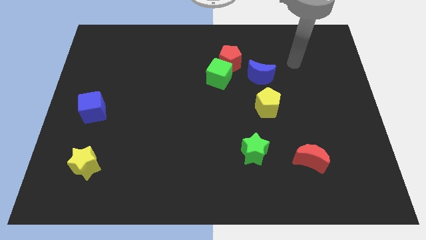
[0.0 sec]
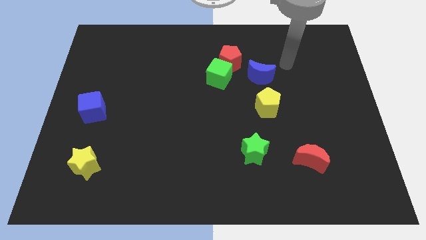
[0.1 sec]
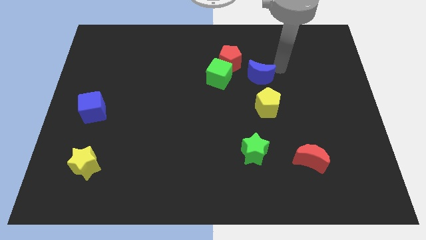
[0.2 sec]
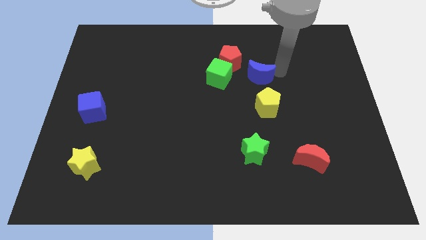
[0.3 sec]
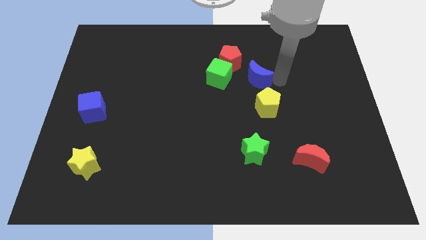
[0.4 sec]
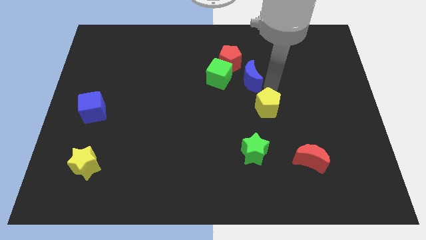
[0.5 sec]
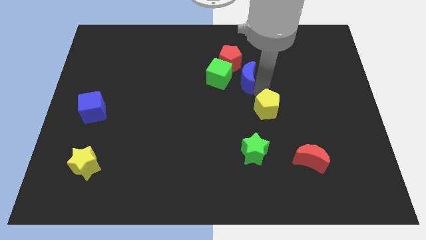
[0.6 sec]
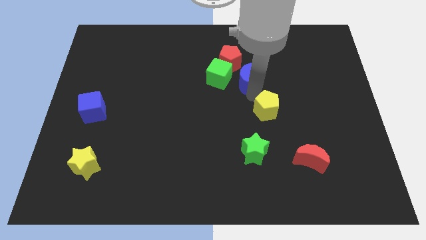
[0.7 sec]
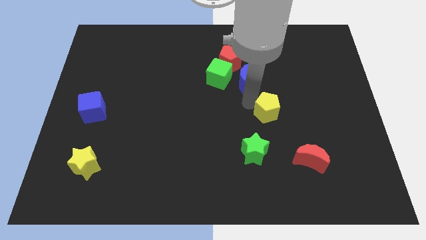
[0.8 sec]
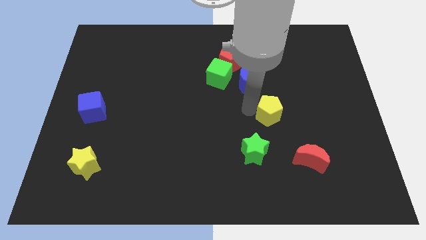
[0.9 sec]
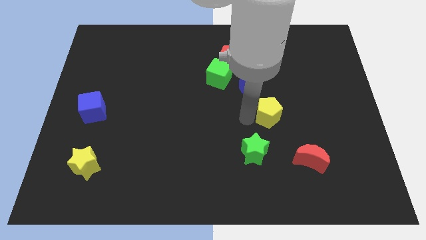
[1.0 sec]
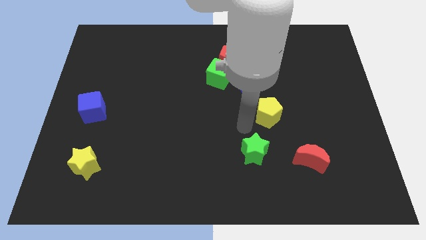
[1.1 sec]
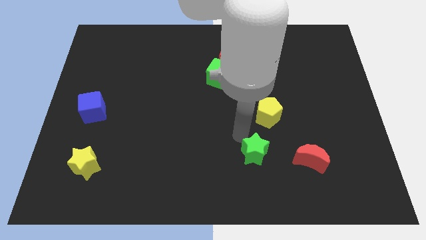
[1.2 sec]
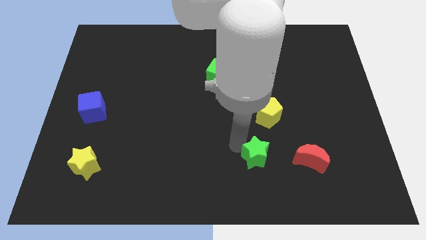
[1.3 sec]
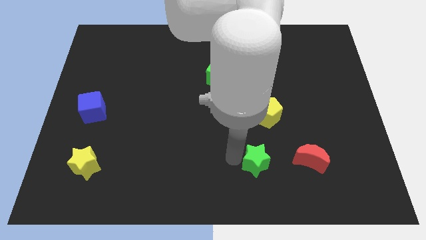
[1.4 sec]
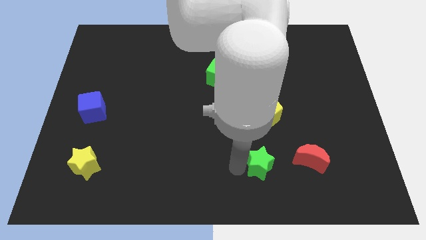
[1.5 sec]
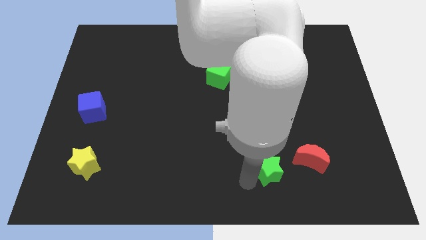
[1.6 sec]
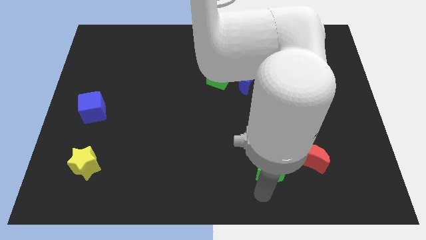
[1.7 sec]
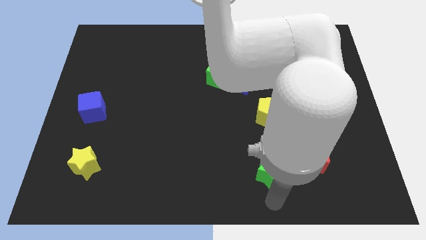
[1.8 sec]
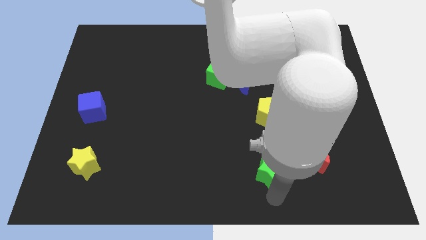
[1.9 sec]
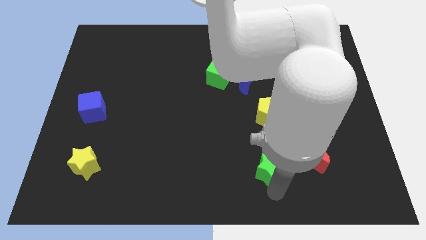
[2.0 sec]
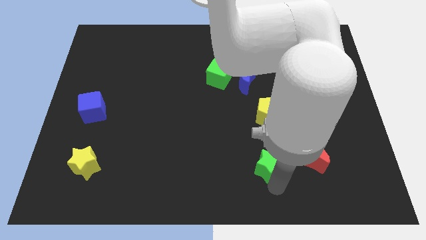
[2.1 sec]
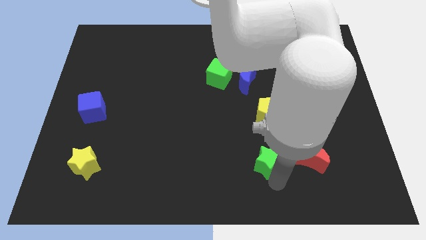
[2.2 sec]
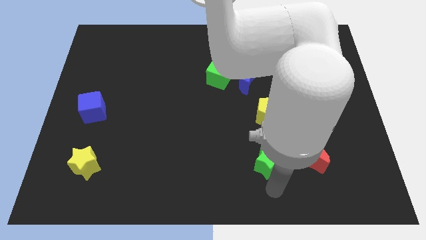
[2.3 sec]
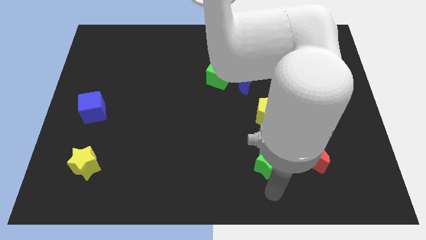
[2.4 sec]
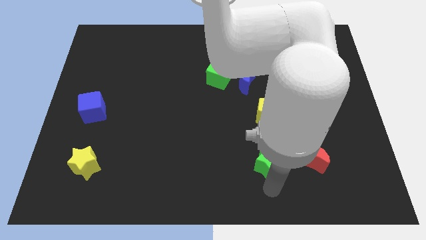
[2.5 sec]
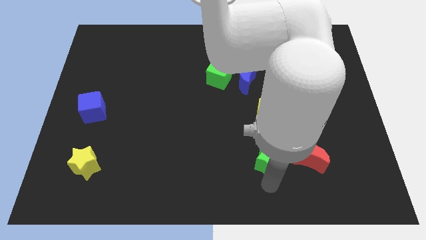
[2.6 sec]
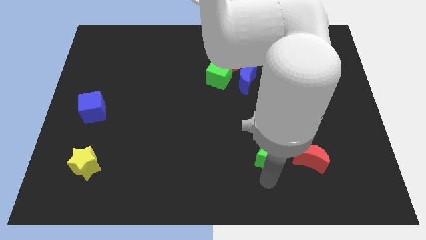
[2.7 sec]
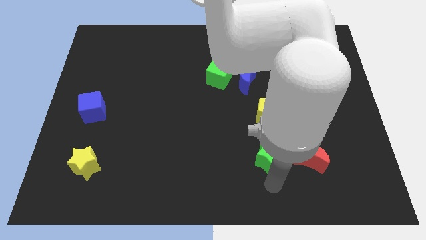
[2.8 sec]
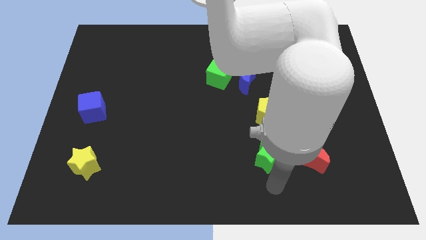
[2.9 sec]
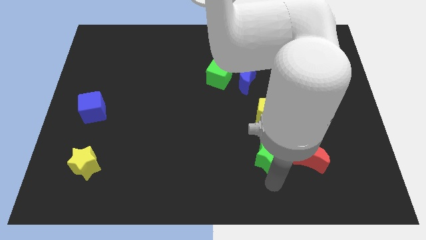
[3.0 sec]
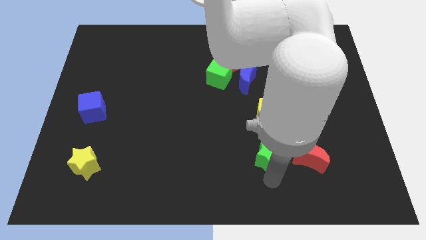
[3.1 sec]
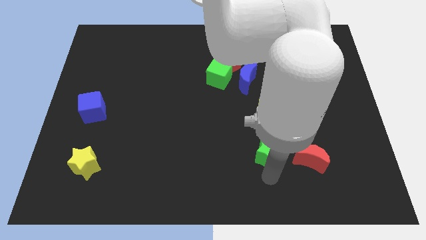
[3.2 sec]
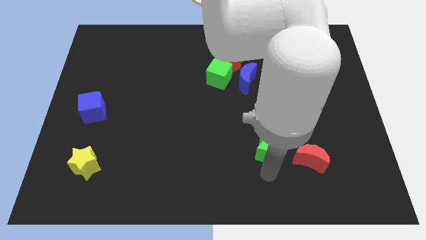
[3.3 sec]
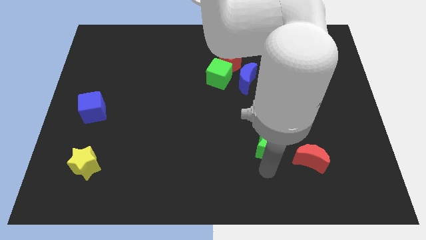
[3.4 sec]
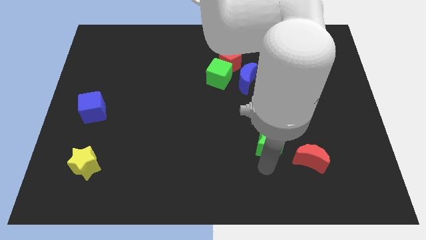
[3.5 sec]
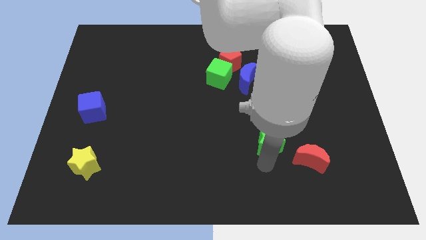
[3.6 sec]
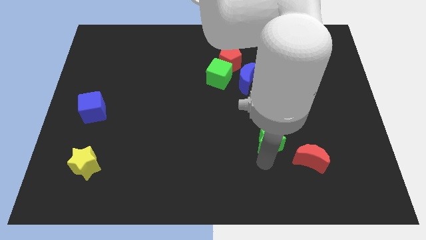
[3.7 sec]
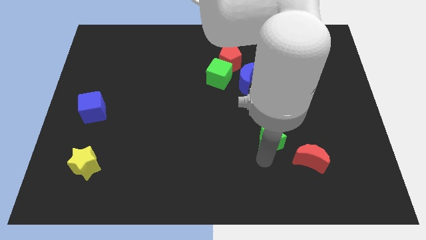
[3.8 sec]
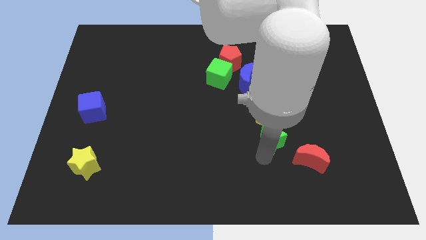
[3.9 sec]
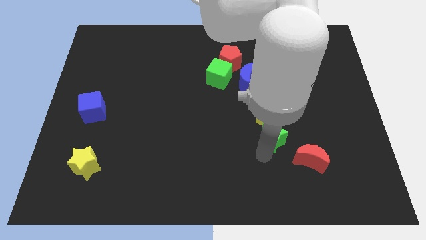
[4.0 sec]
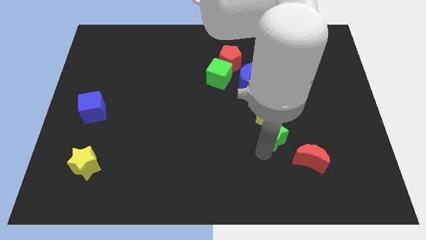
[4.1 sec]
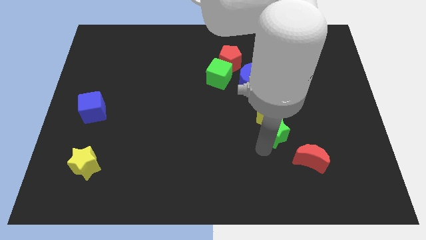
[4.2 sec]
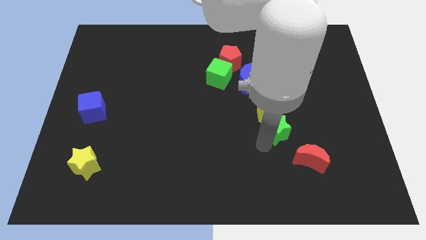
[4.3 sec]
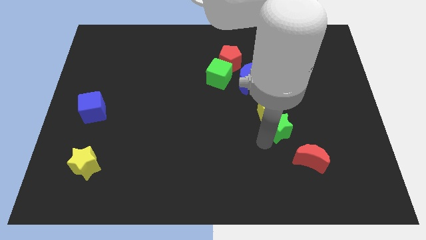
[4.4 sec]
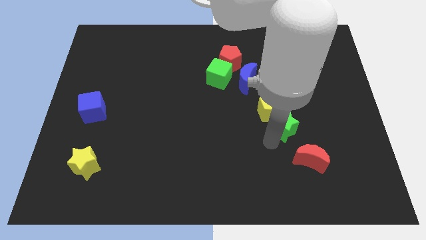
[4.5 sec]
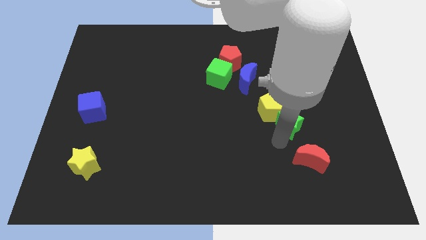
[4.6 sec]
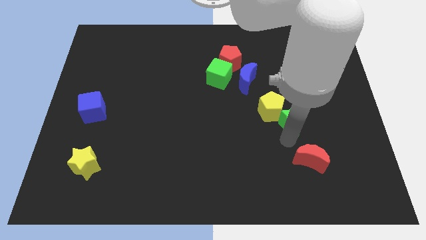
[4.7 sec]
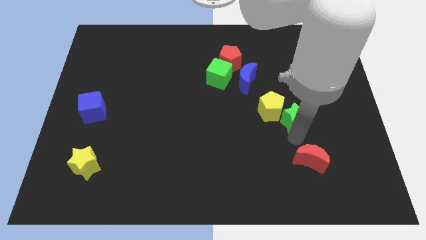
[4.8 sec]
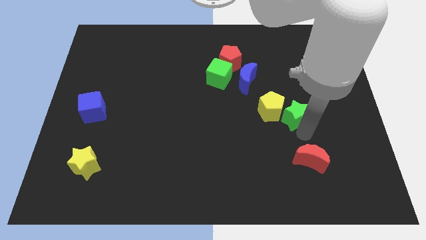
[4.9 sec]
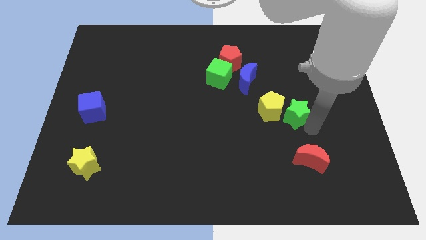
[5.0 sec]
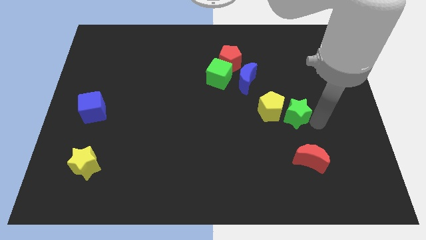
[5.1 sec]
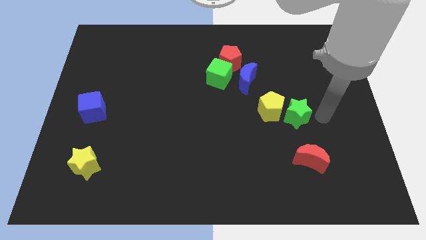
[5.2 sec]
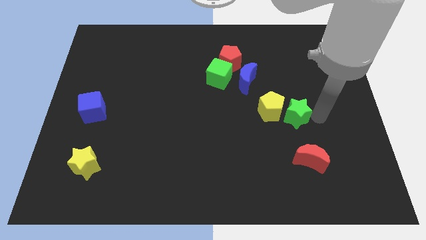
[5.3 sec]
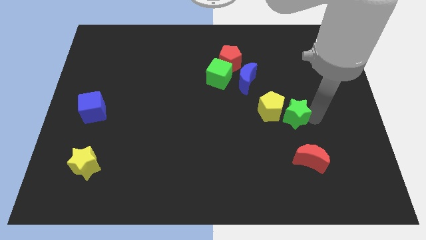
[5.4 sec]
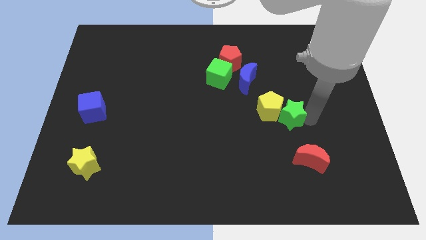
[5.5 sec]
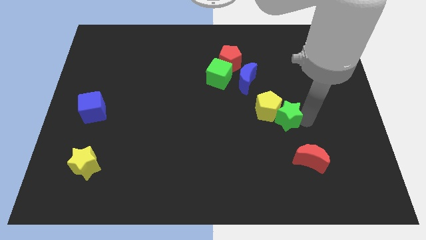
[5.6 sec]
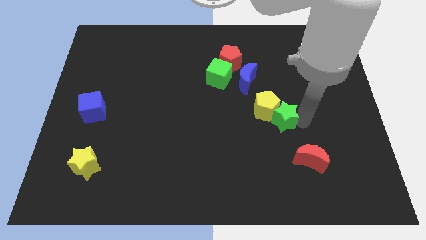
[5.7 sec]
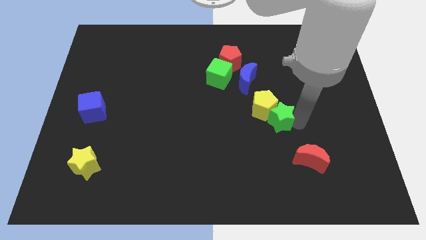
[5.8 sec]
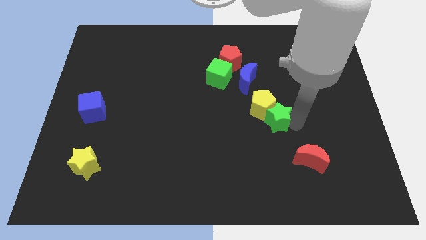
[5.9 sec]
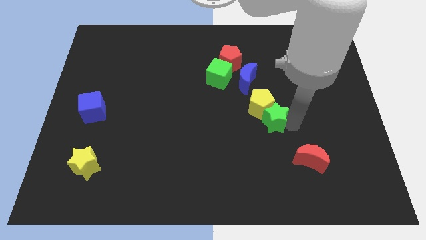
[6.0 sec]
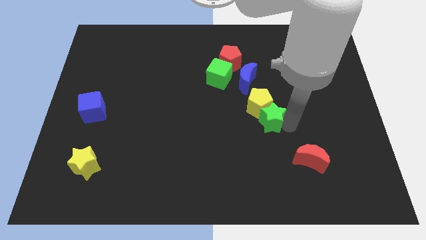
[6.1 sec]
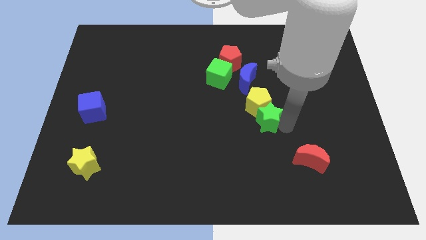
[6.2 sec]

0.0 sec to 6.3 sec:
push the green star to the bottom side of the blue moon

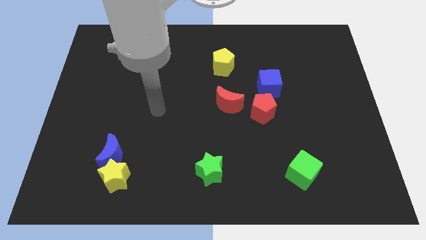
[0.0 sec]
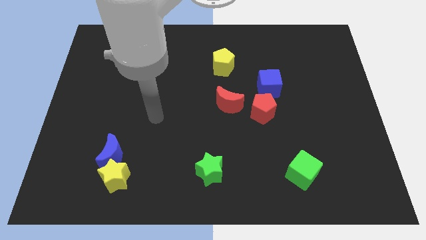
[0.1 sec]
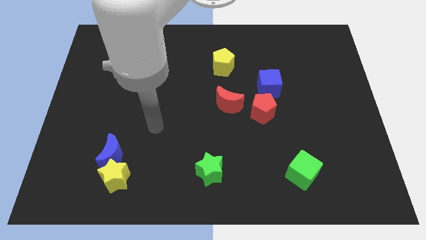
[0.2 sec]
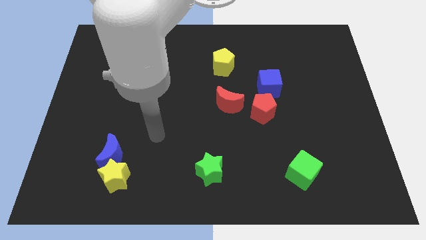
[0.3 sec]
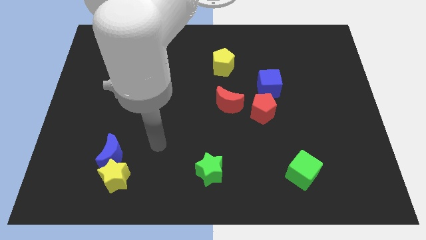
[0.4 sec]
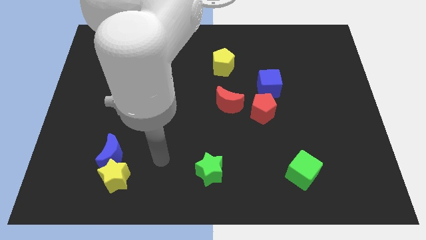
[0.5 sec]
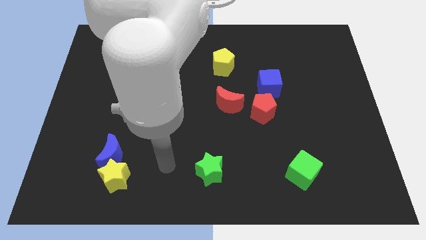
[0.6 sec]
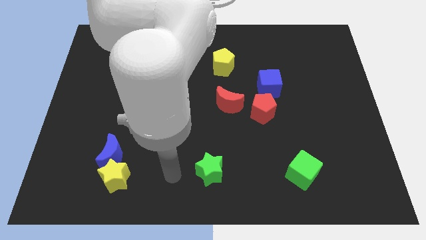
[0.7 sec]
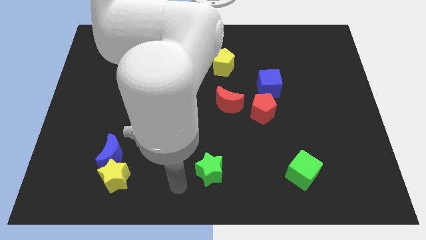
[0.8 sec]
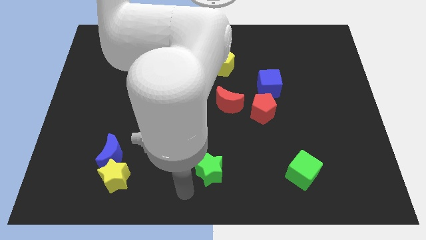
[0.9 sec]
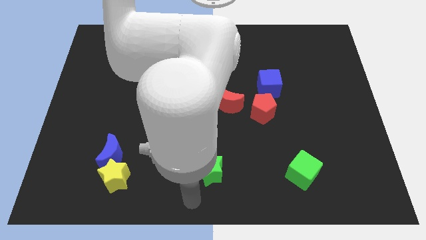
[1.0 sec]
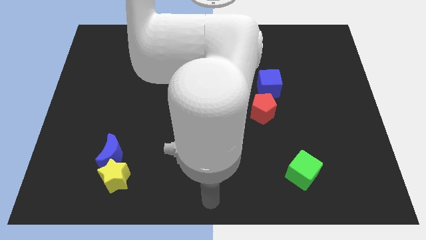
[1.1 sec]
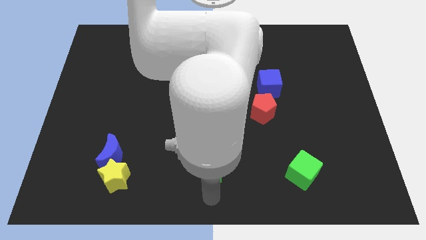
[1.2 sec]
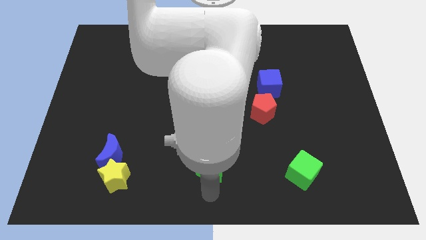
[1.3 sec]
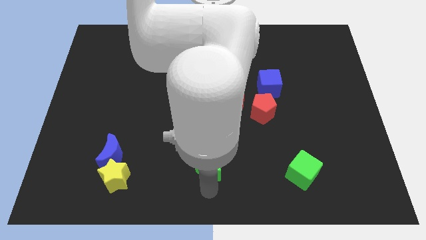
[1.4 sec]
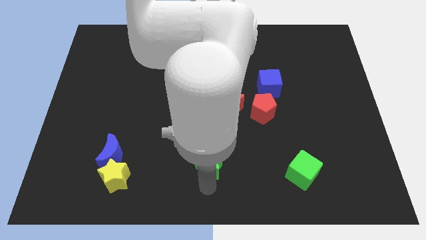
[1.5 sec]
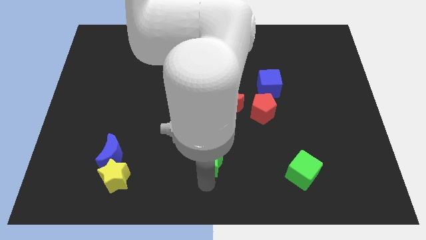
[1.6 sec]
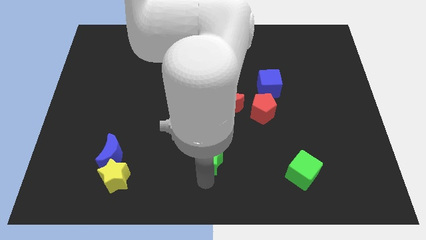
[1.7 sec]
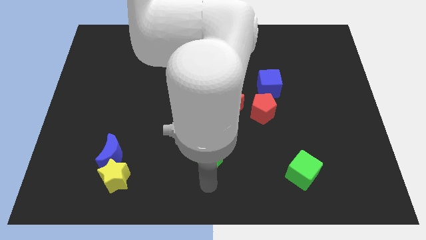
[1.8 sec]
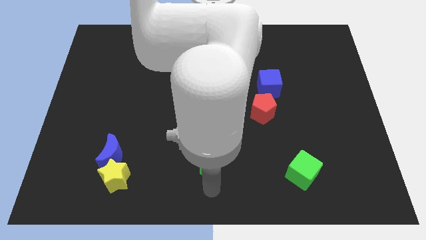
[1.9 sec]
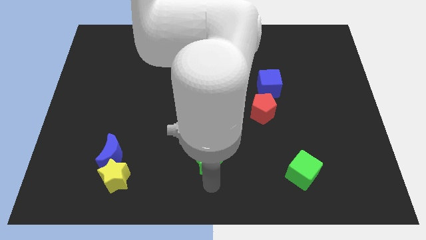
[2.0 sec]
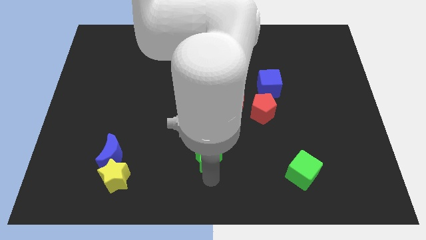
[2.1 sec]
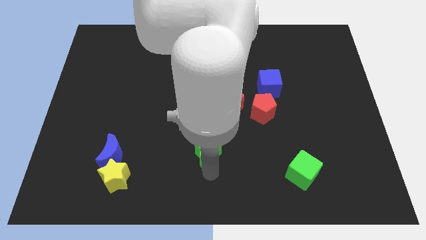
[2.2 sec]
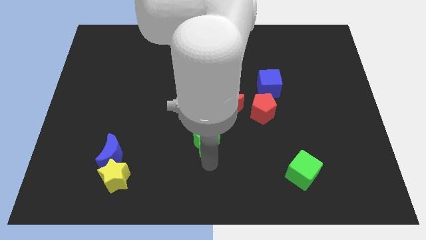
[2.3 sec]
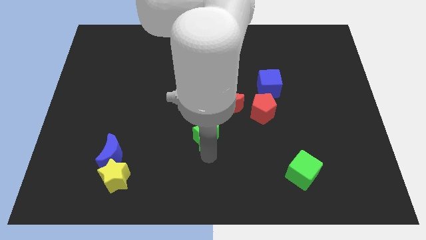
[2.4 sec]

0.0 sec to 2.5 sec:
slide the green star to the bottom left side of the red moon
